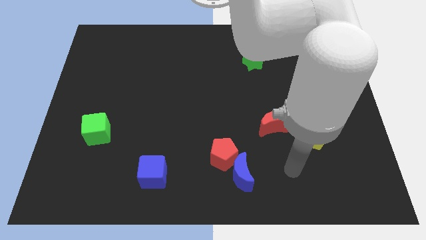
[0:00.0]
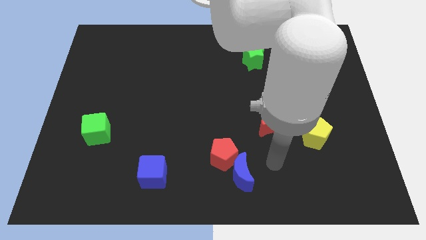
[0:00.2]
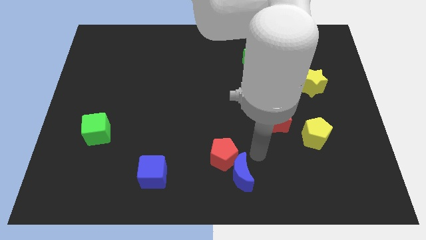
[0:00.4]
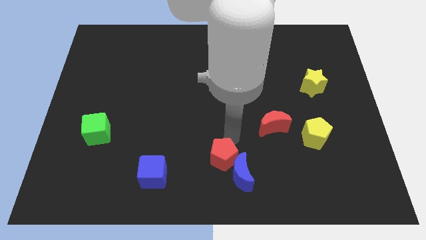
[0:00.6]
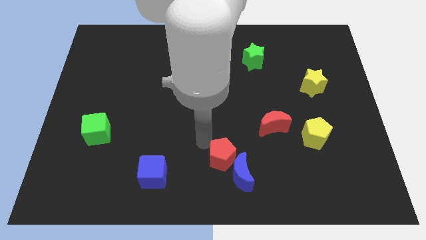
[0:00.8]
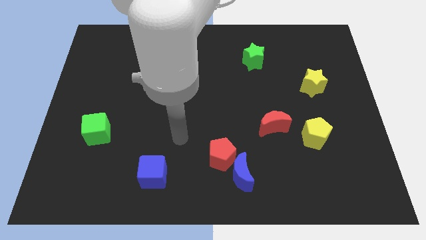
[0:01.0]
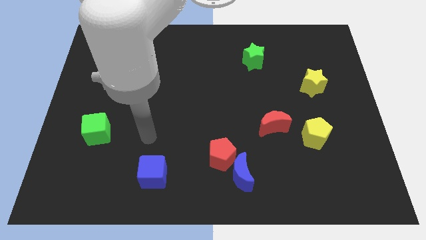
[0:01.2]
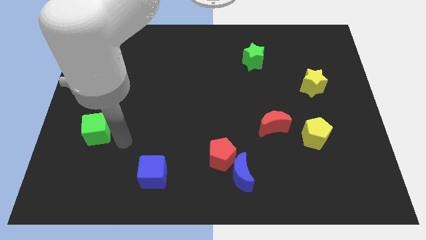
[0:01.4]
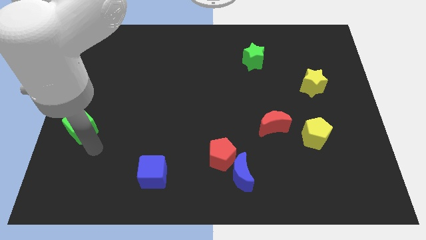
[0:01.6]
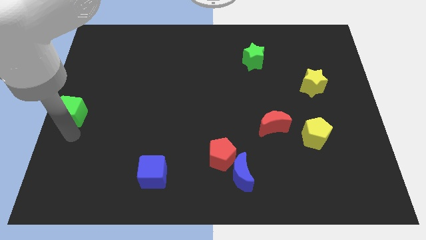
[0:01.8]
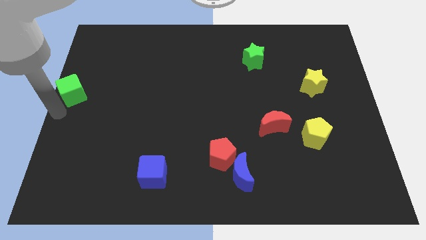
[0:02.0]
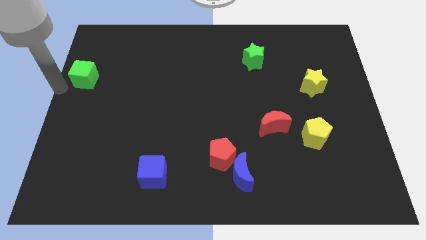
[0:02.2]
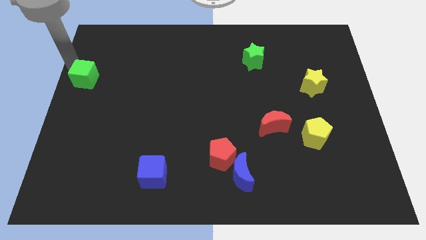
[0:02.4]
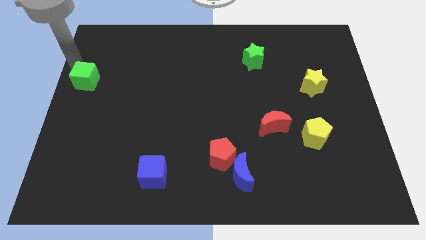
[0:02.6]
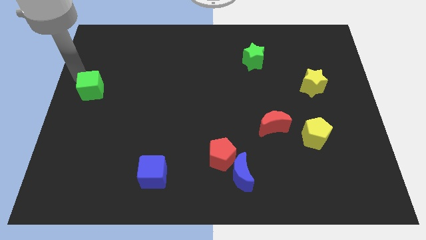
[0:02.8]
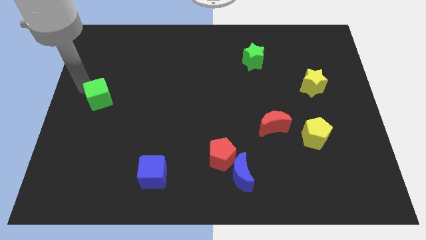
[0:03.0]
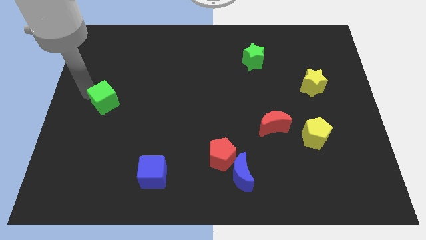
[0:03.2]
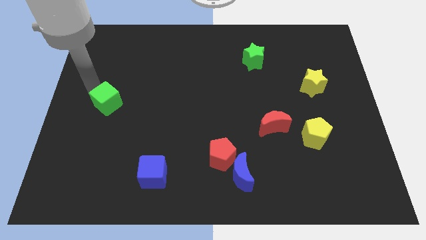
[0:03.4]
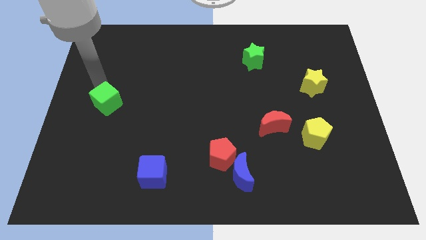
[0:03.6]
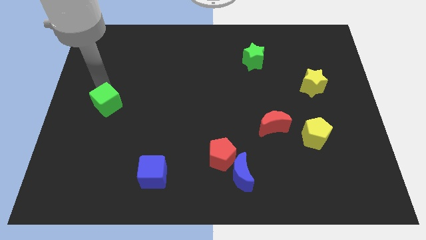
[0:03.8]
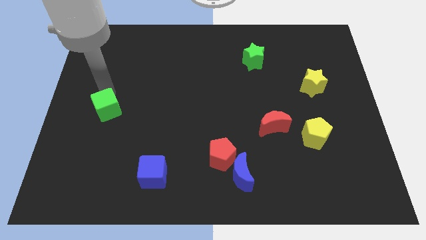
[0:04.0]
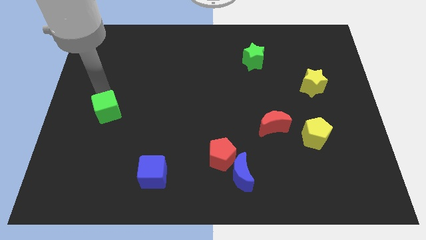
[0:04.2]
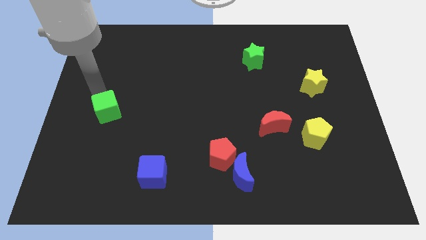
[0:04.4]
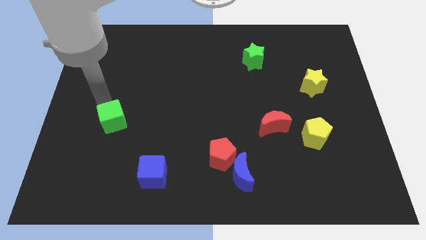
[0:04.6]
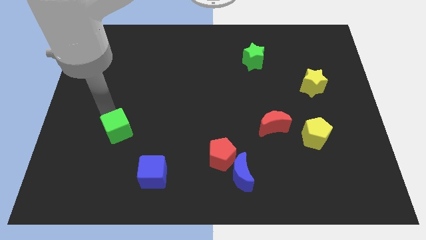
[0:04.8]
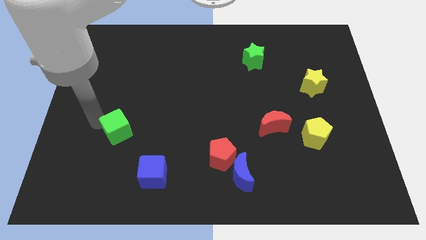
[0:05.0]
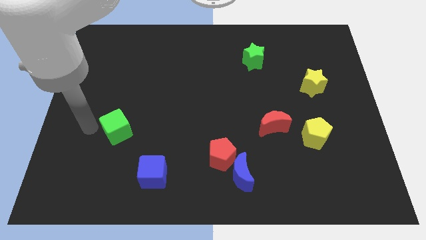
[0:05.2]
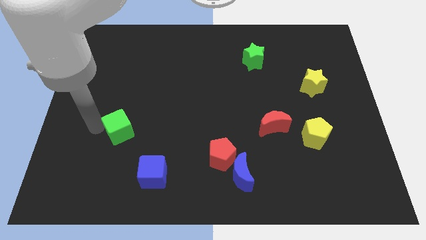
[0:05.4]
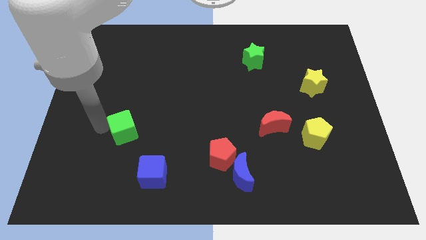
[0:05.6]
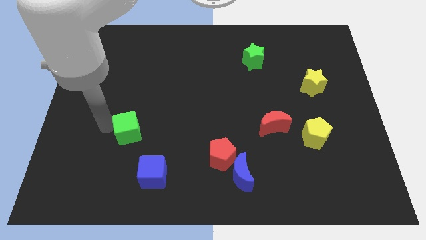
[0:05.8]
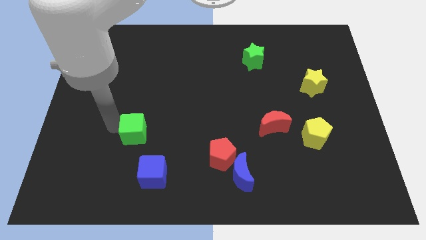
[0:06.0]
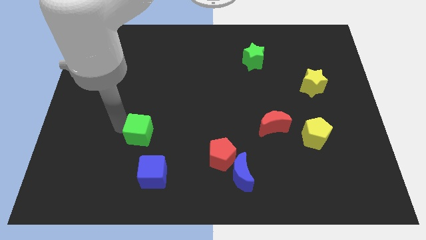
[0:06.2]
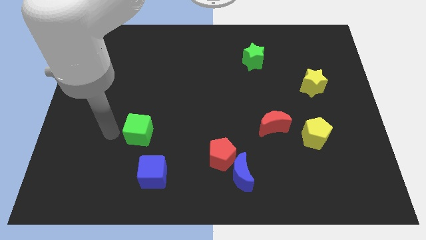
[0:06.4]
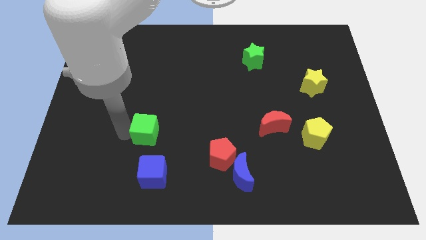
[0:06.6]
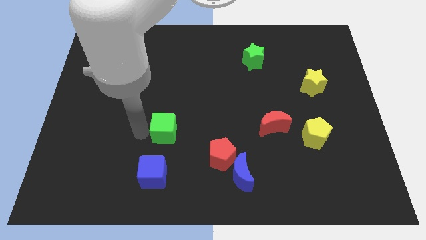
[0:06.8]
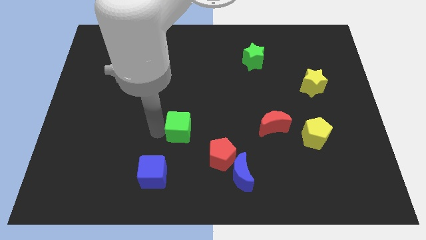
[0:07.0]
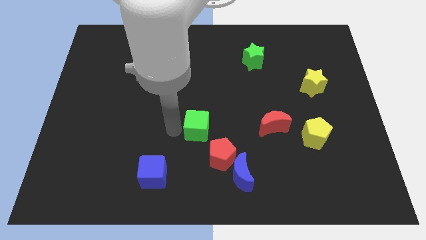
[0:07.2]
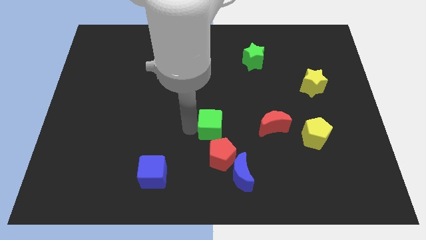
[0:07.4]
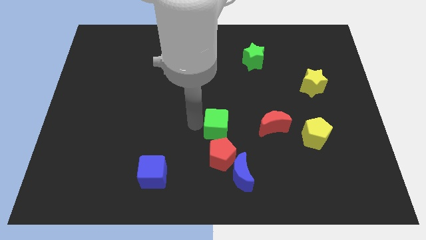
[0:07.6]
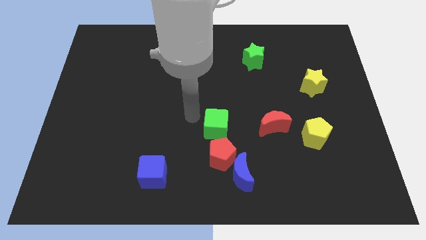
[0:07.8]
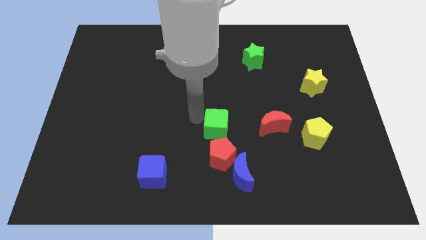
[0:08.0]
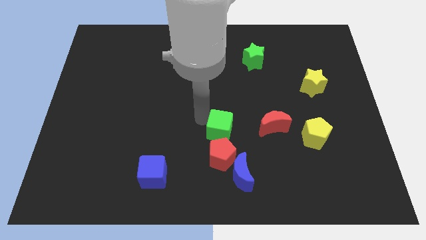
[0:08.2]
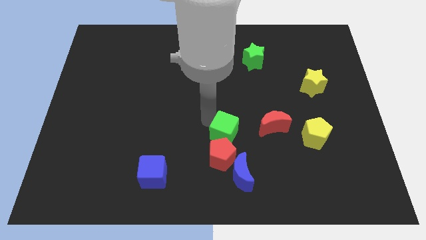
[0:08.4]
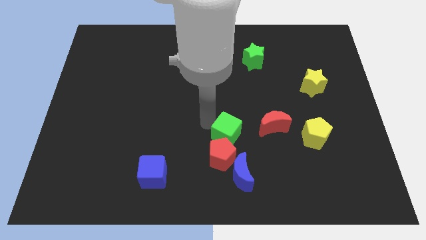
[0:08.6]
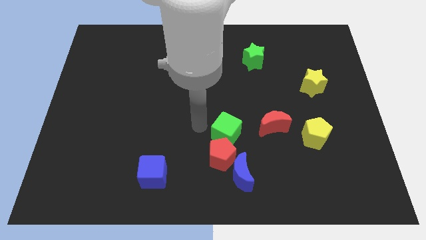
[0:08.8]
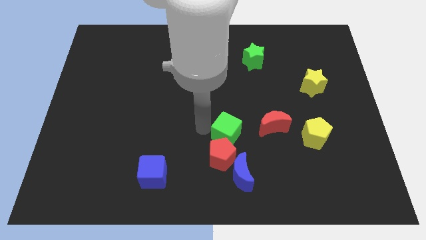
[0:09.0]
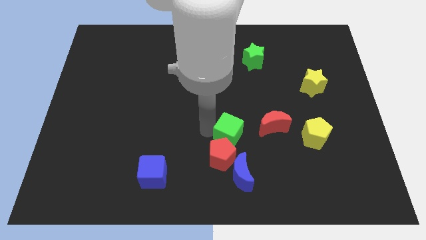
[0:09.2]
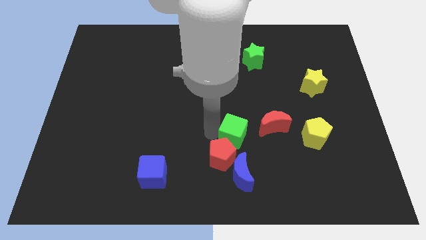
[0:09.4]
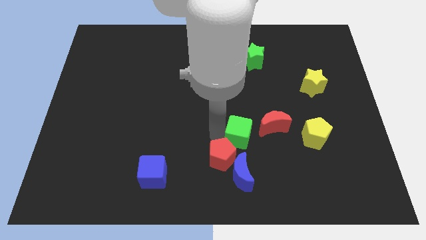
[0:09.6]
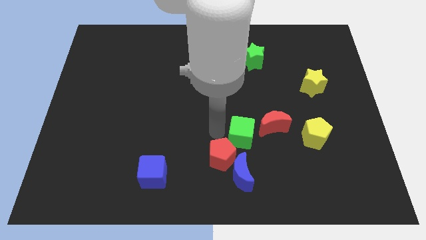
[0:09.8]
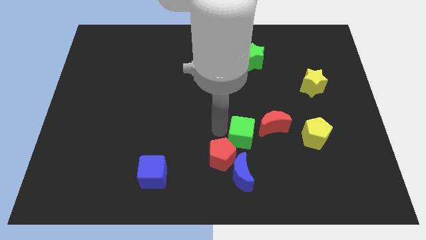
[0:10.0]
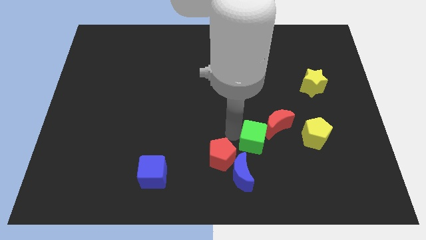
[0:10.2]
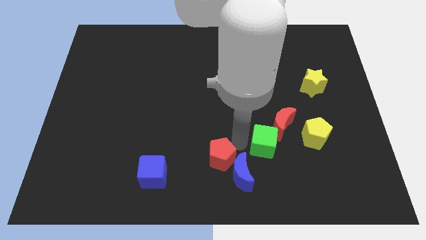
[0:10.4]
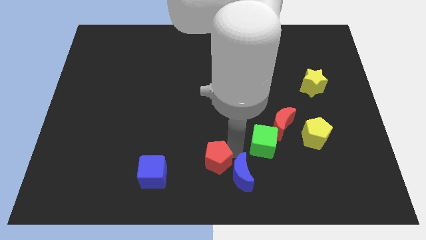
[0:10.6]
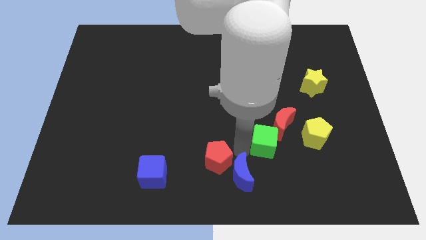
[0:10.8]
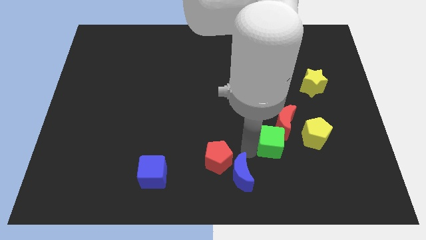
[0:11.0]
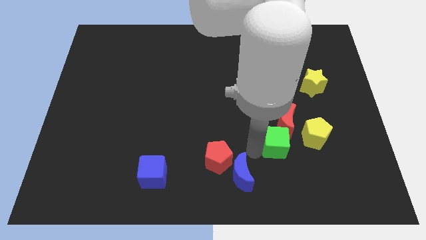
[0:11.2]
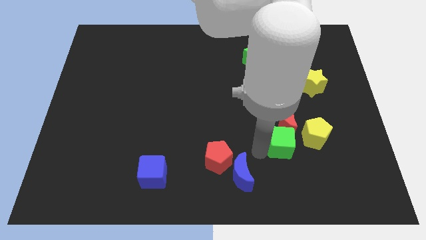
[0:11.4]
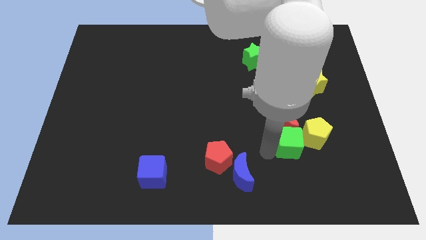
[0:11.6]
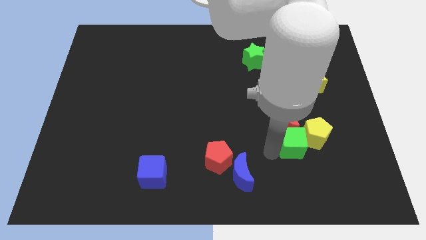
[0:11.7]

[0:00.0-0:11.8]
move the green cube close to the yellow pentagon

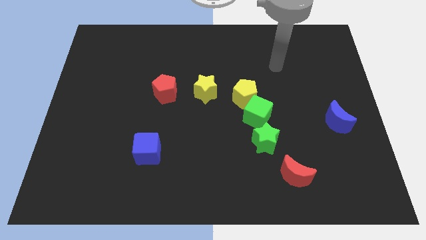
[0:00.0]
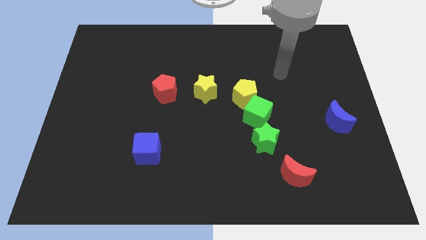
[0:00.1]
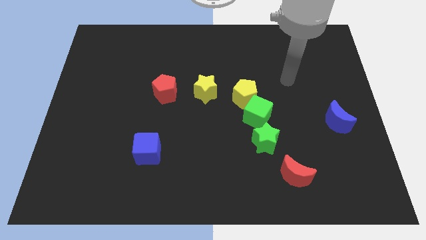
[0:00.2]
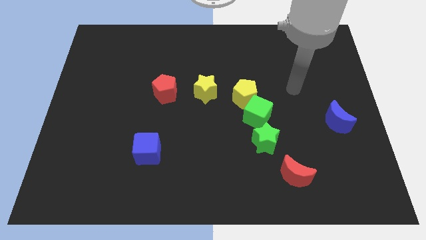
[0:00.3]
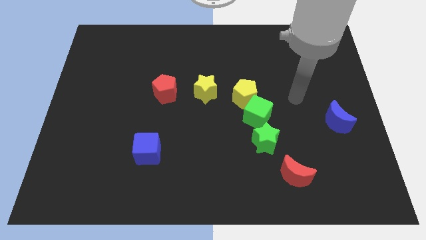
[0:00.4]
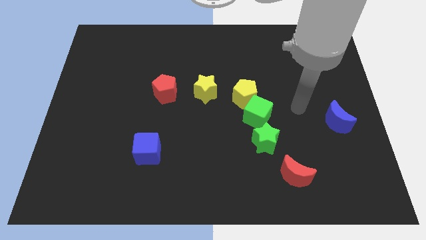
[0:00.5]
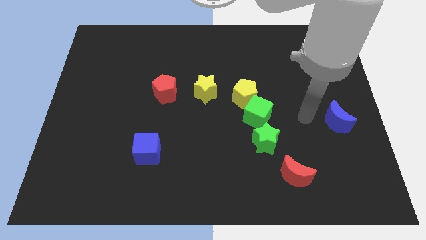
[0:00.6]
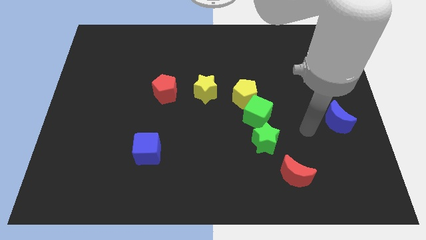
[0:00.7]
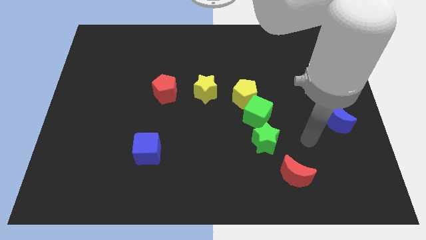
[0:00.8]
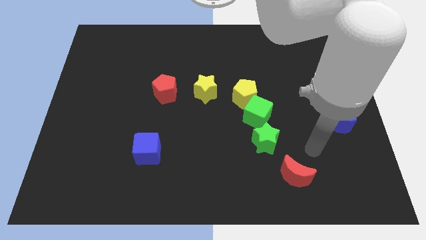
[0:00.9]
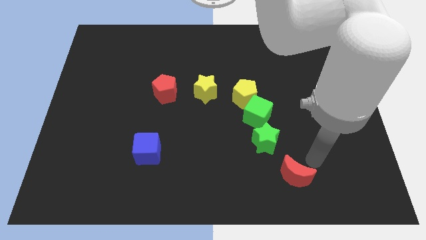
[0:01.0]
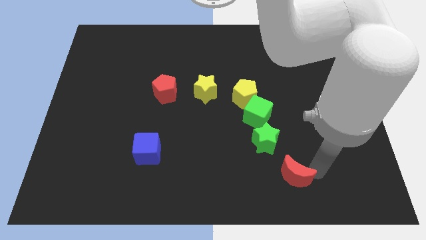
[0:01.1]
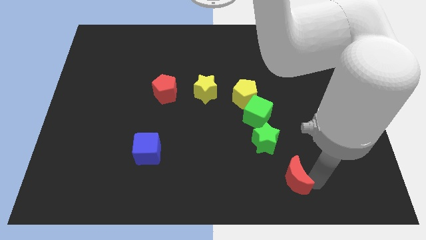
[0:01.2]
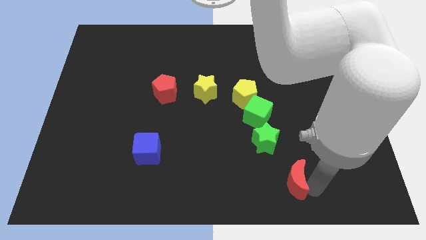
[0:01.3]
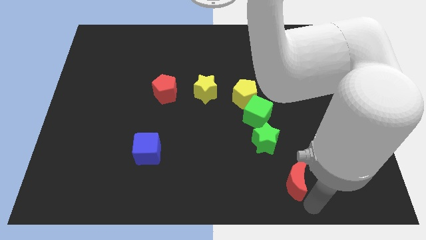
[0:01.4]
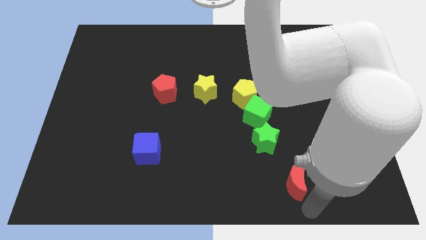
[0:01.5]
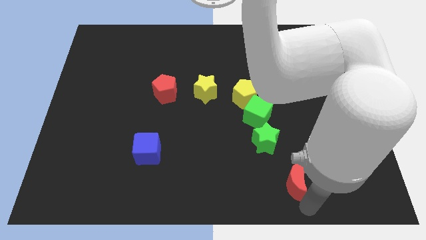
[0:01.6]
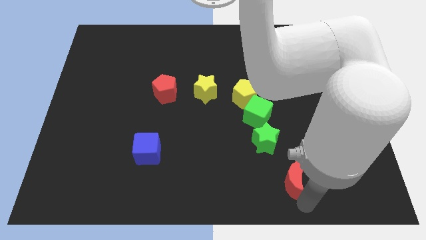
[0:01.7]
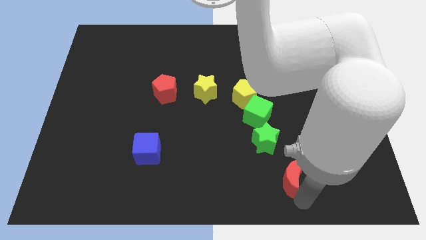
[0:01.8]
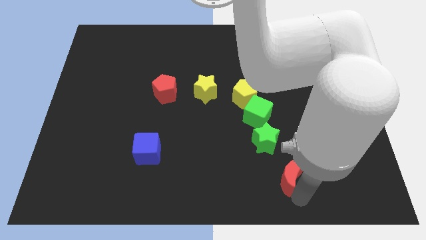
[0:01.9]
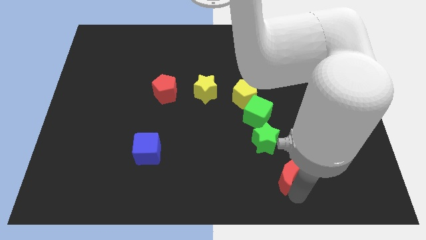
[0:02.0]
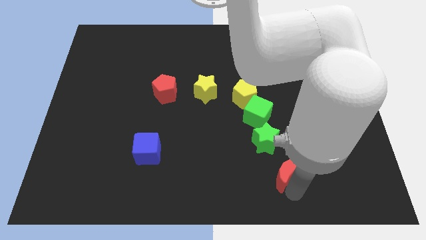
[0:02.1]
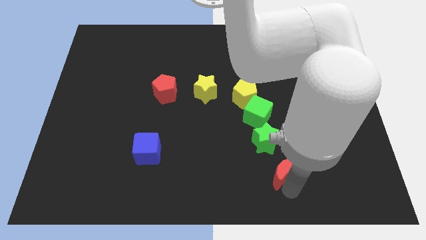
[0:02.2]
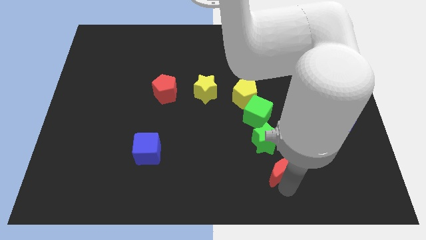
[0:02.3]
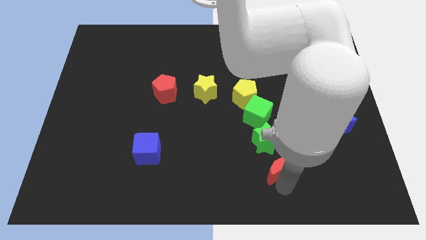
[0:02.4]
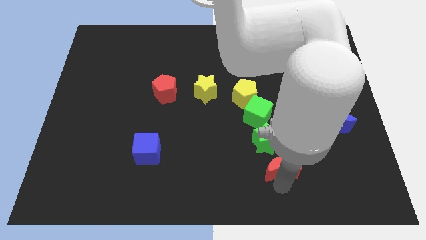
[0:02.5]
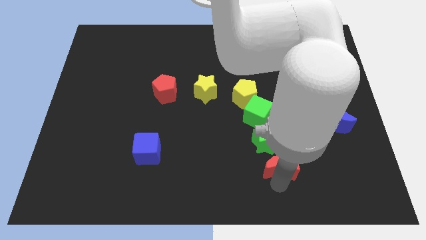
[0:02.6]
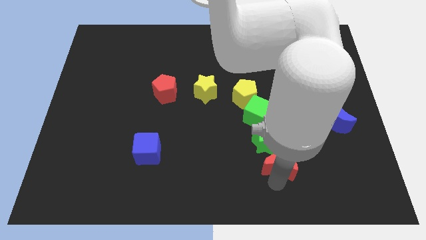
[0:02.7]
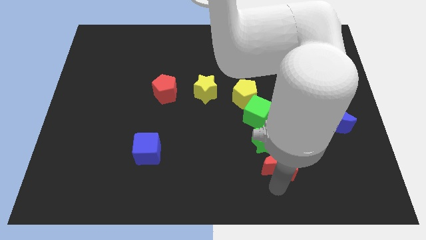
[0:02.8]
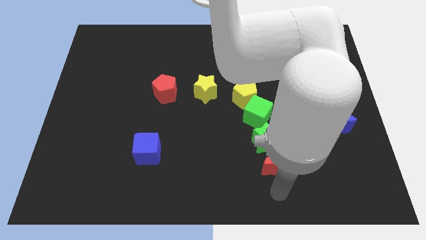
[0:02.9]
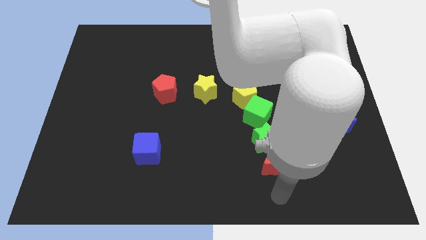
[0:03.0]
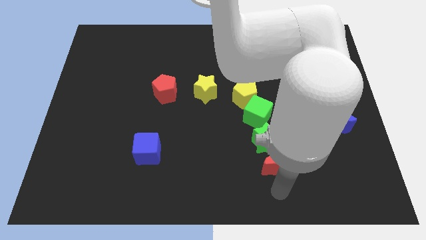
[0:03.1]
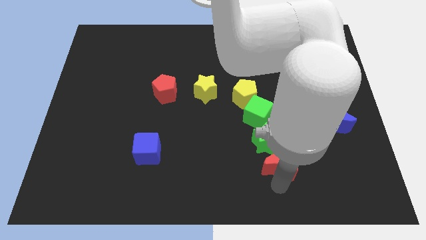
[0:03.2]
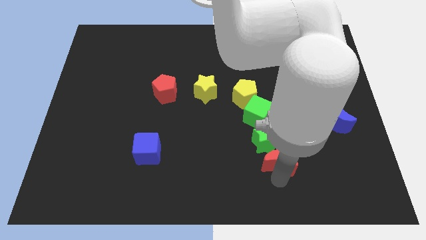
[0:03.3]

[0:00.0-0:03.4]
push the red moon next to the green star
